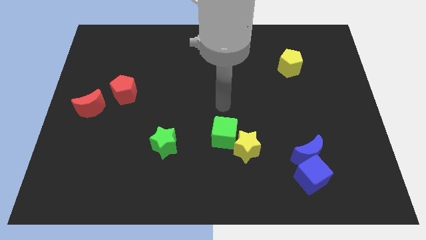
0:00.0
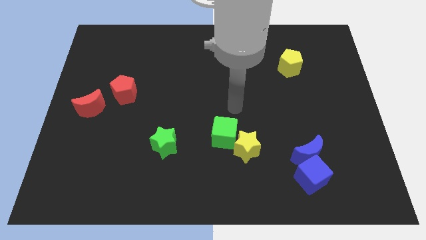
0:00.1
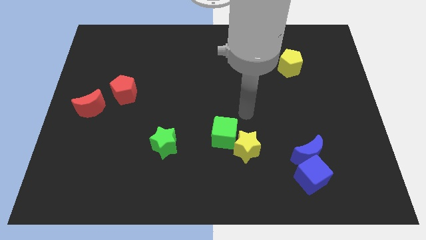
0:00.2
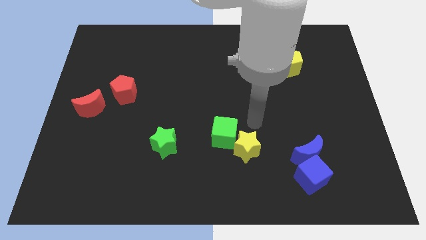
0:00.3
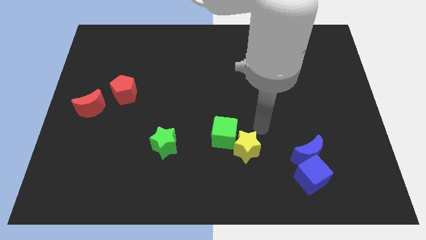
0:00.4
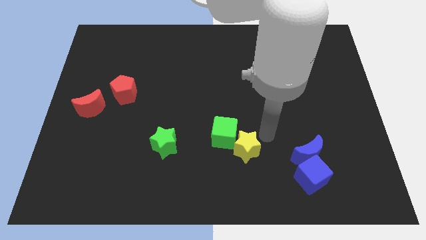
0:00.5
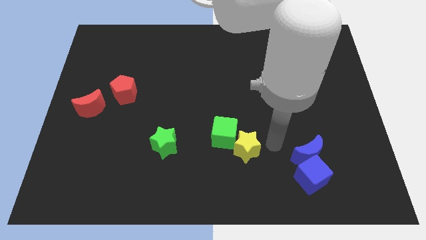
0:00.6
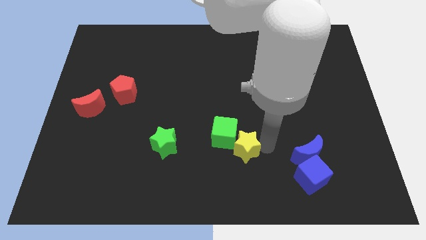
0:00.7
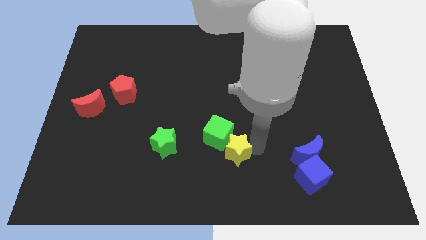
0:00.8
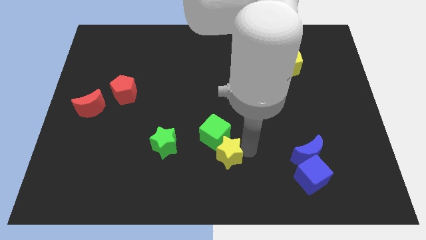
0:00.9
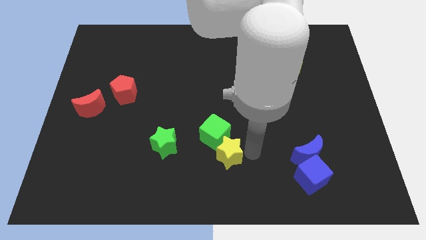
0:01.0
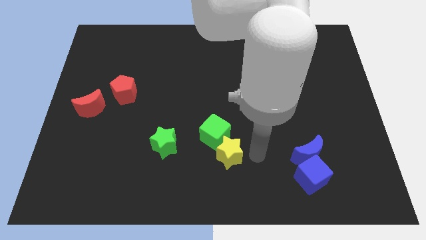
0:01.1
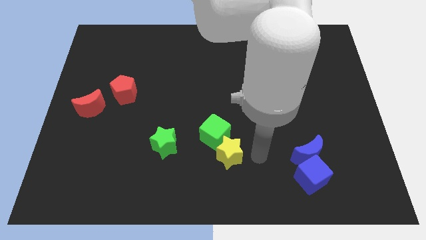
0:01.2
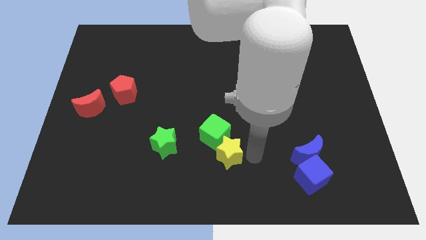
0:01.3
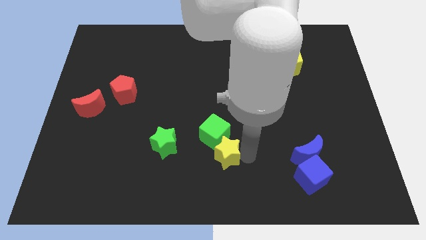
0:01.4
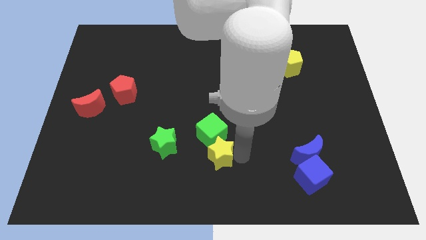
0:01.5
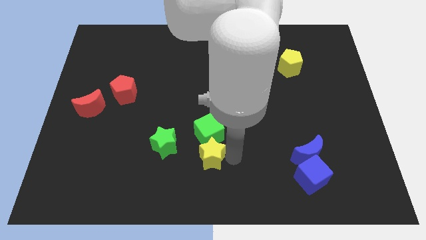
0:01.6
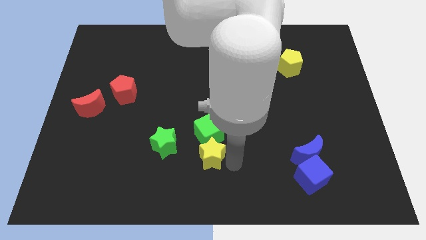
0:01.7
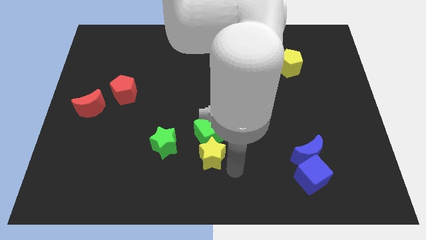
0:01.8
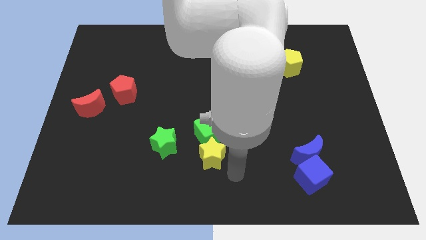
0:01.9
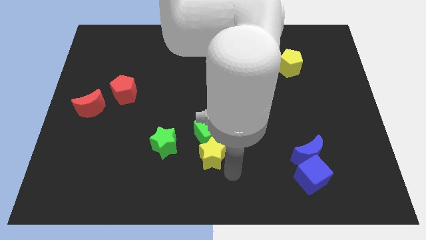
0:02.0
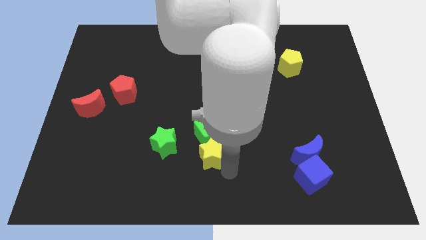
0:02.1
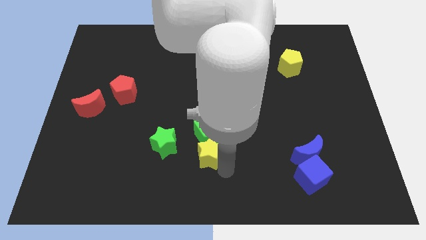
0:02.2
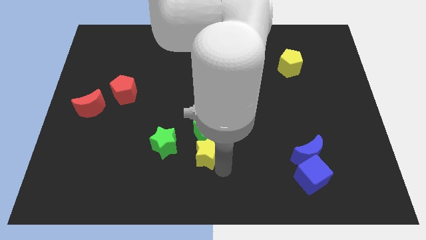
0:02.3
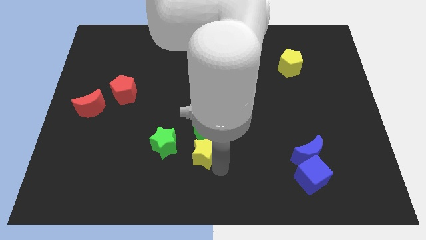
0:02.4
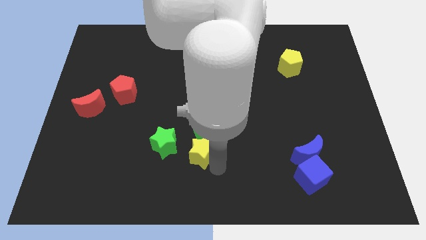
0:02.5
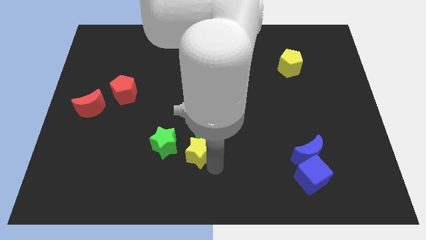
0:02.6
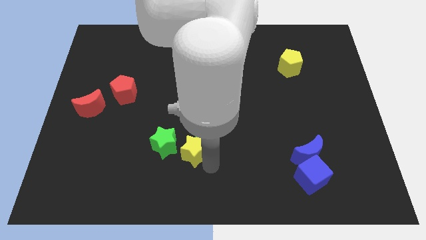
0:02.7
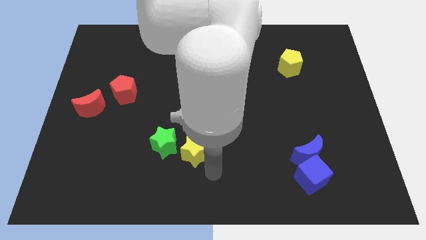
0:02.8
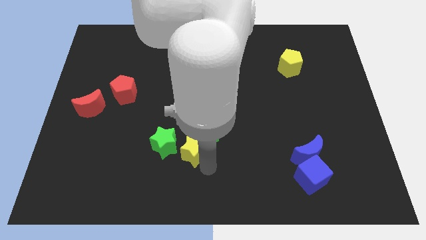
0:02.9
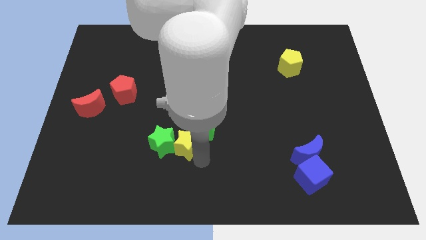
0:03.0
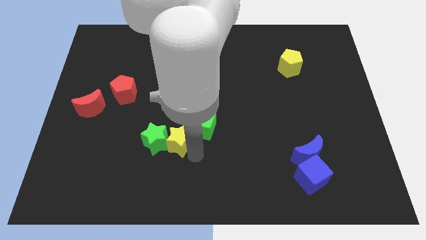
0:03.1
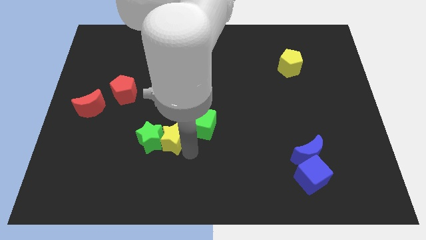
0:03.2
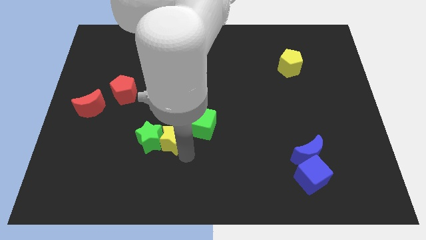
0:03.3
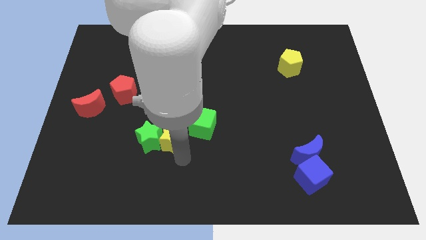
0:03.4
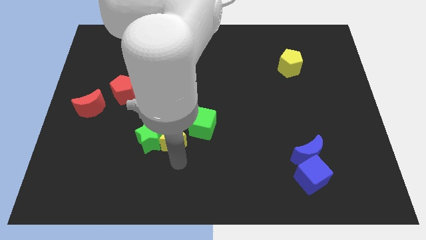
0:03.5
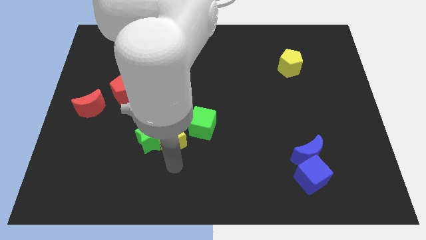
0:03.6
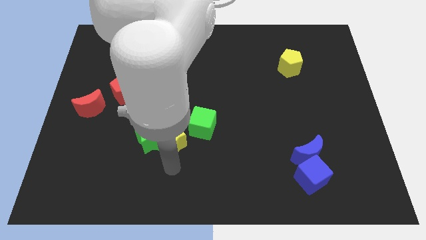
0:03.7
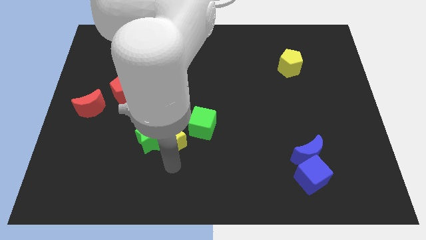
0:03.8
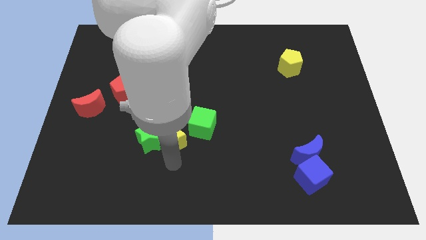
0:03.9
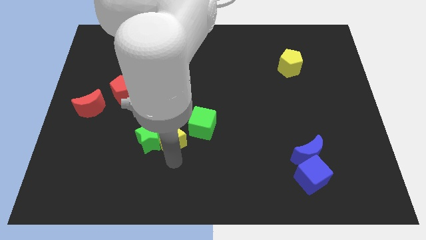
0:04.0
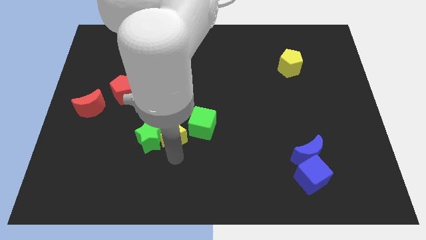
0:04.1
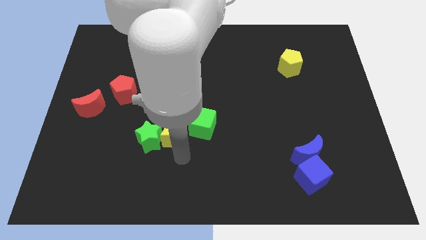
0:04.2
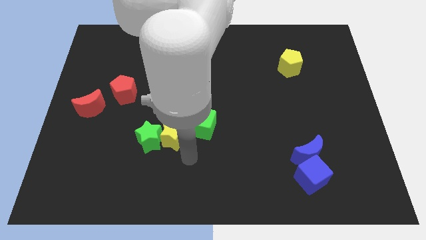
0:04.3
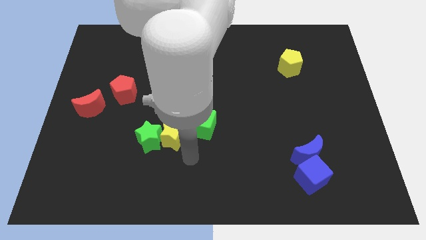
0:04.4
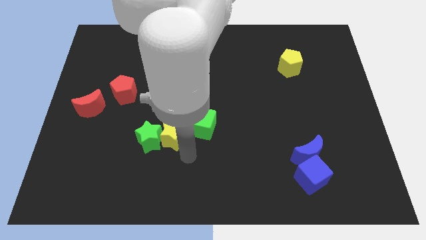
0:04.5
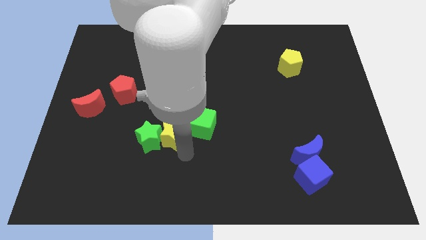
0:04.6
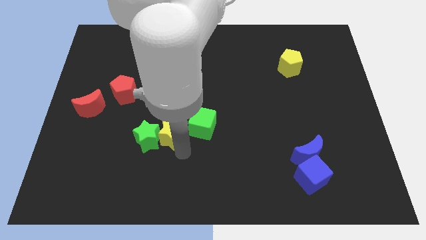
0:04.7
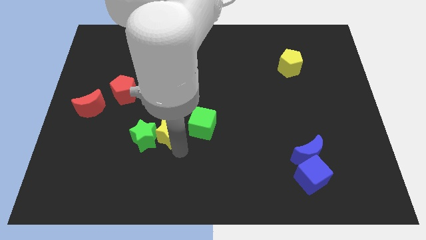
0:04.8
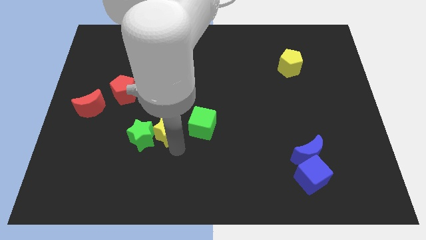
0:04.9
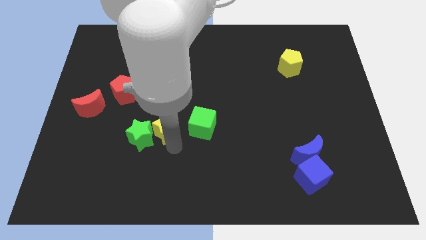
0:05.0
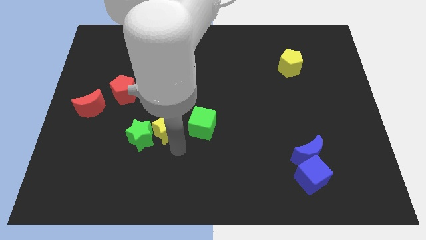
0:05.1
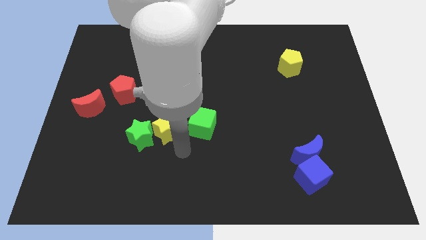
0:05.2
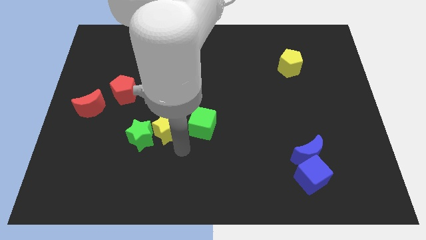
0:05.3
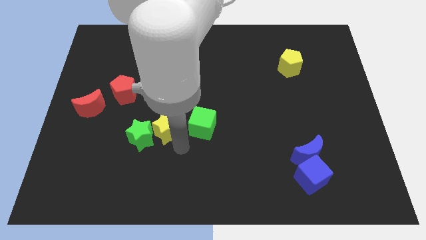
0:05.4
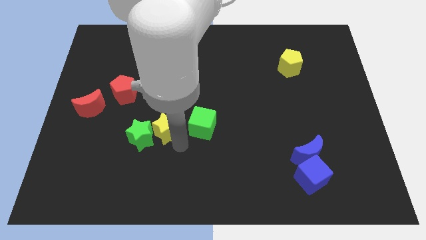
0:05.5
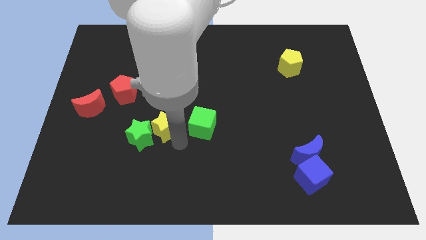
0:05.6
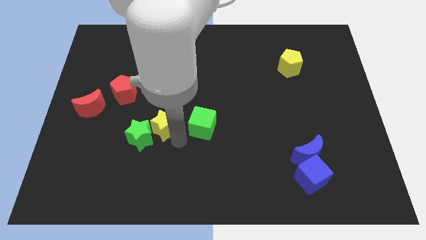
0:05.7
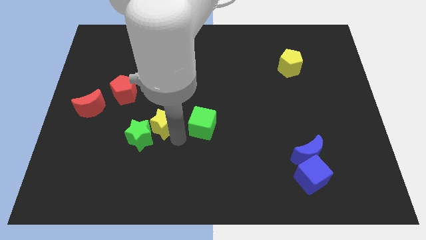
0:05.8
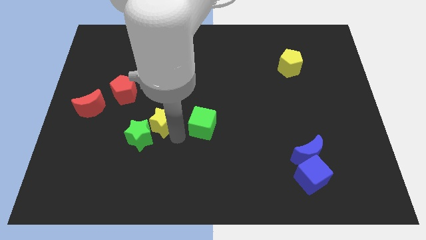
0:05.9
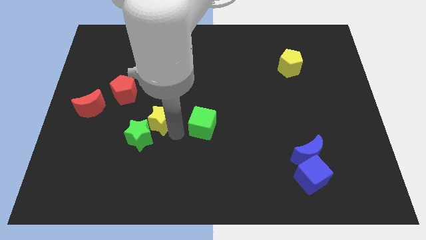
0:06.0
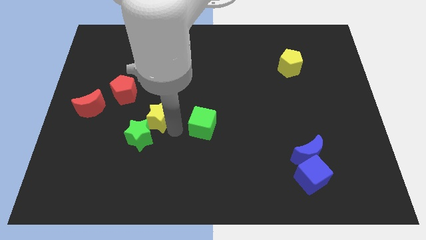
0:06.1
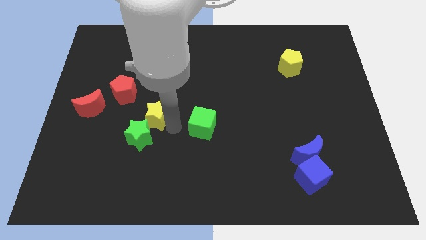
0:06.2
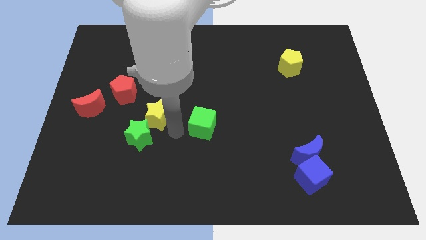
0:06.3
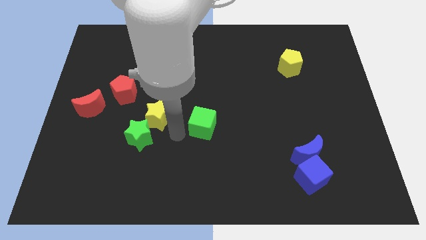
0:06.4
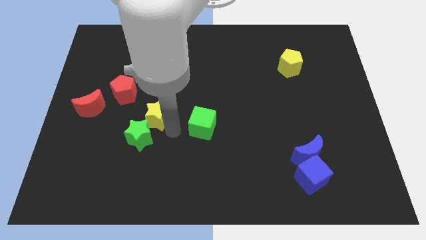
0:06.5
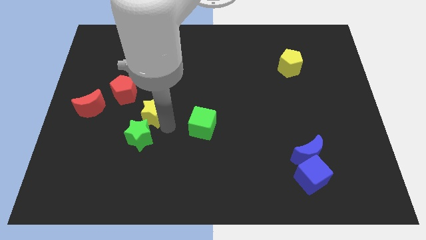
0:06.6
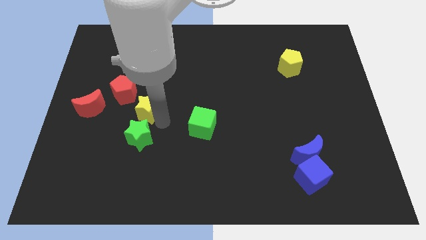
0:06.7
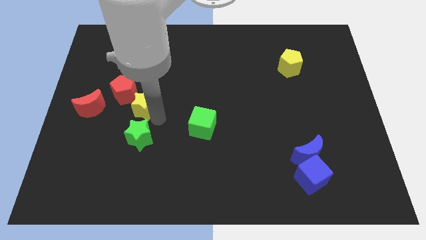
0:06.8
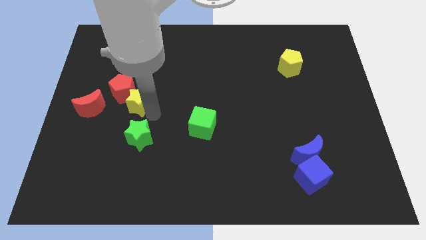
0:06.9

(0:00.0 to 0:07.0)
move the yellow star to the red pentagon
